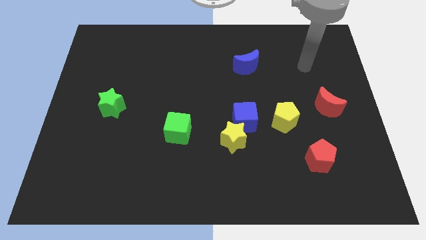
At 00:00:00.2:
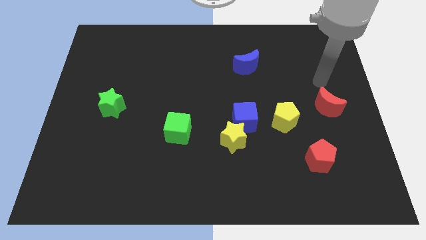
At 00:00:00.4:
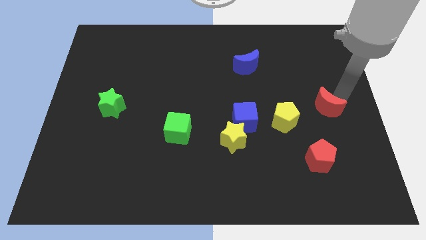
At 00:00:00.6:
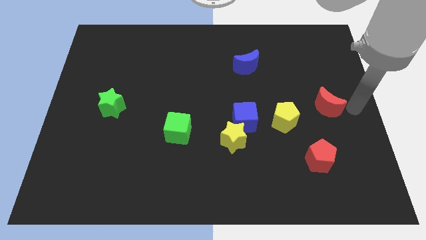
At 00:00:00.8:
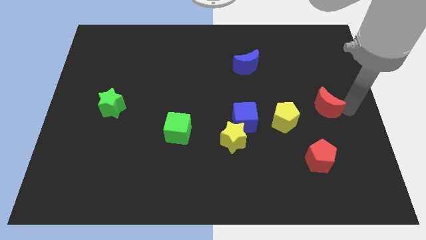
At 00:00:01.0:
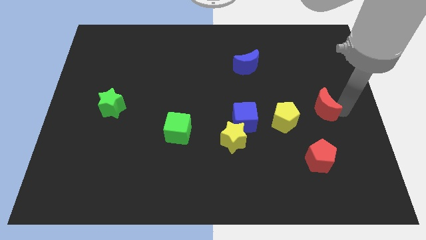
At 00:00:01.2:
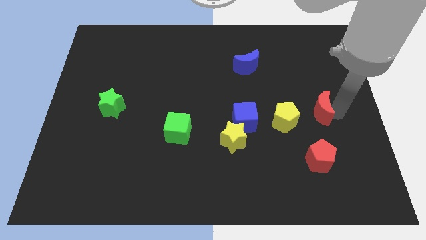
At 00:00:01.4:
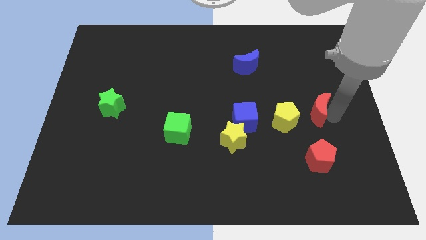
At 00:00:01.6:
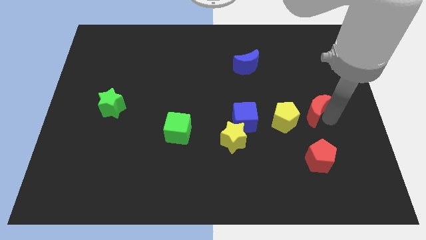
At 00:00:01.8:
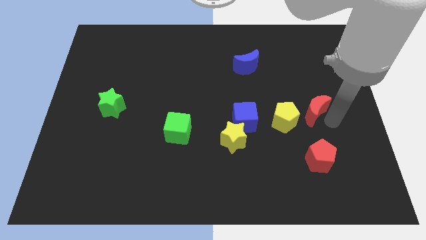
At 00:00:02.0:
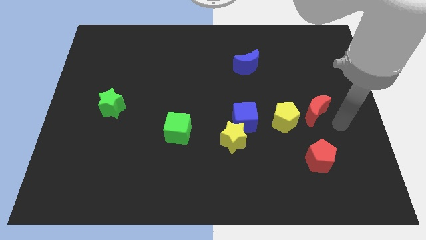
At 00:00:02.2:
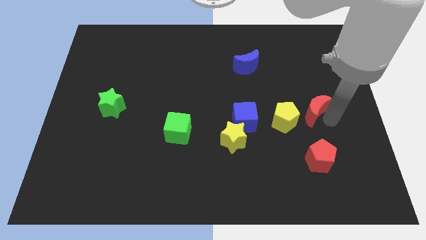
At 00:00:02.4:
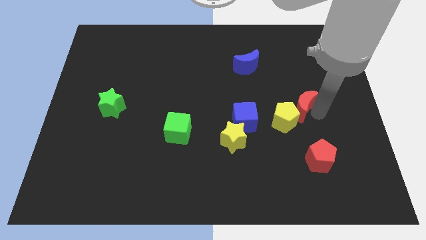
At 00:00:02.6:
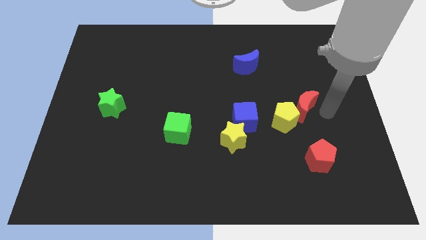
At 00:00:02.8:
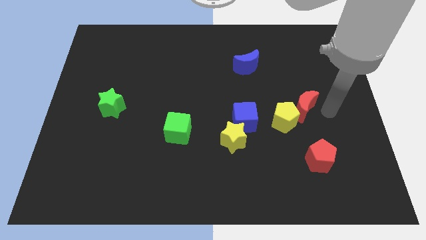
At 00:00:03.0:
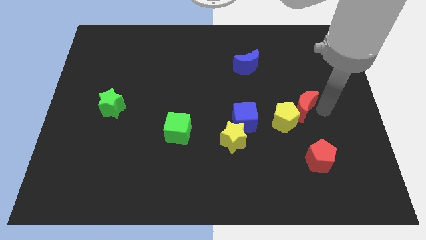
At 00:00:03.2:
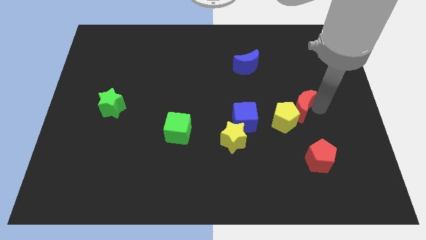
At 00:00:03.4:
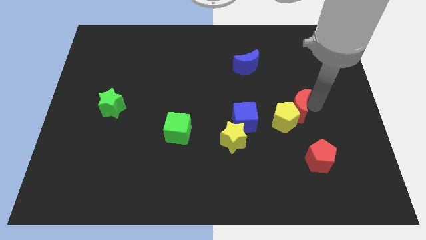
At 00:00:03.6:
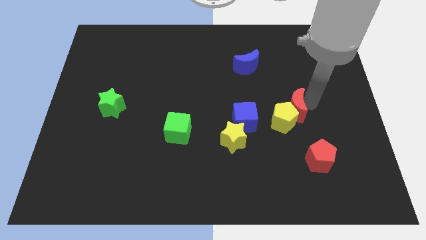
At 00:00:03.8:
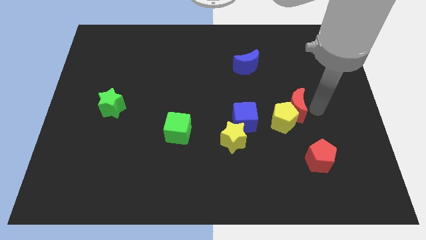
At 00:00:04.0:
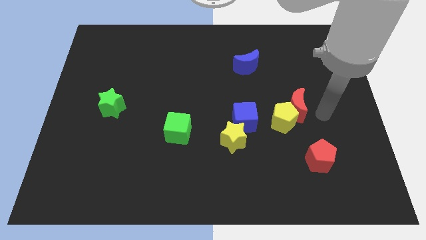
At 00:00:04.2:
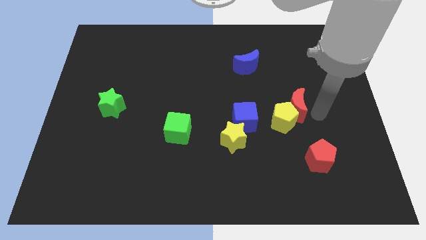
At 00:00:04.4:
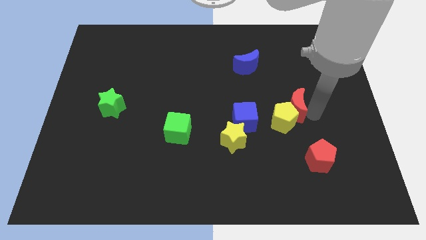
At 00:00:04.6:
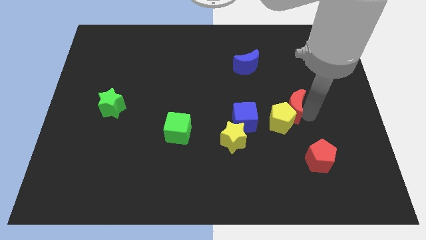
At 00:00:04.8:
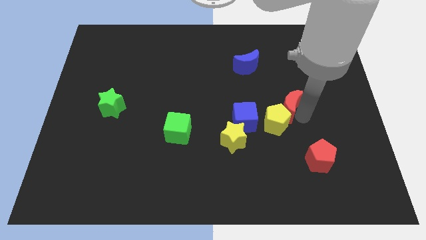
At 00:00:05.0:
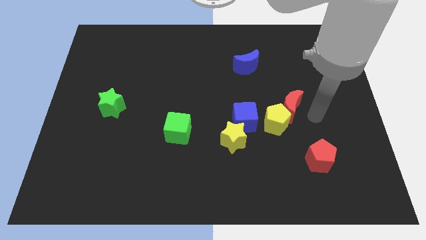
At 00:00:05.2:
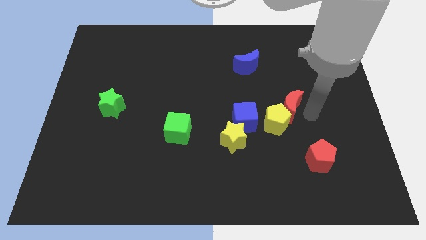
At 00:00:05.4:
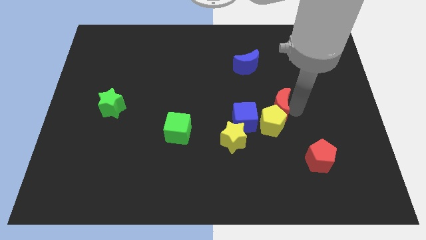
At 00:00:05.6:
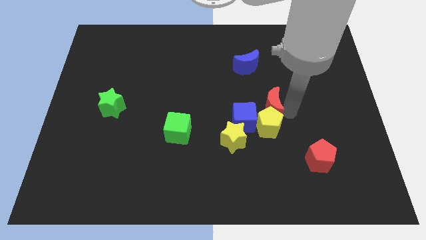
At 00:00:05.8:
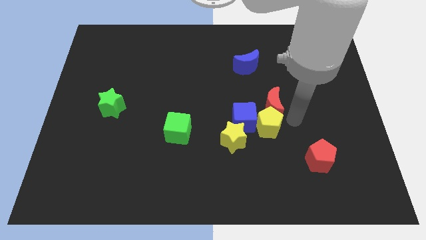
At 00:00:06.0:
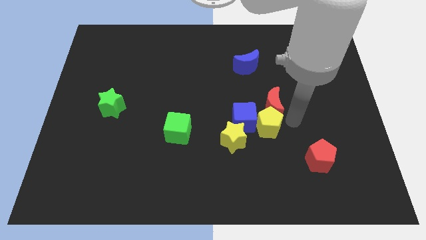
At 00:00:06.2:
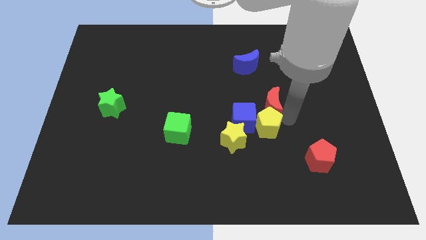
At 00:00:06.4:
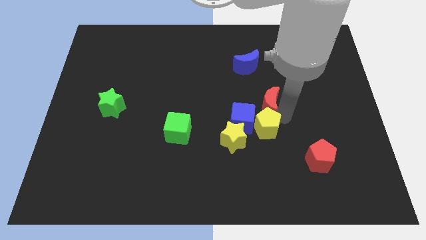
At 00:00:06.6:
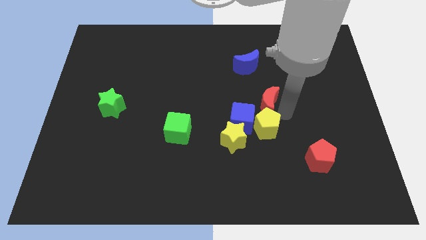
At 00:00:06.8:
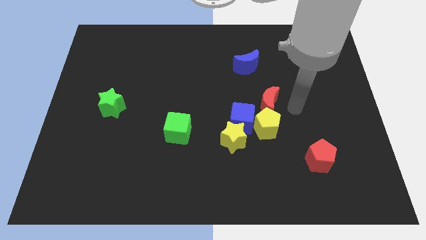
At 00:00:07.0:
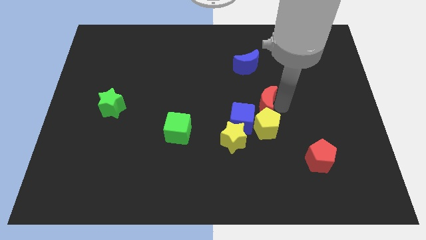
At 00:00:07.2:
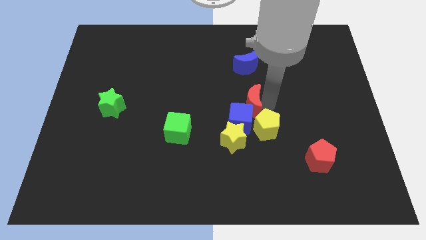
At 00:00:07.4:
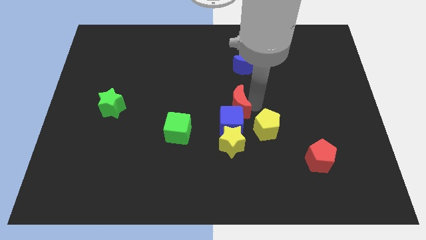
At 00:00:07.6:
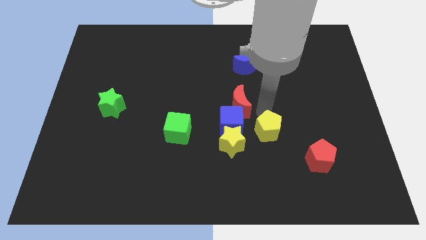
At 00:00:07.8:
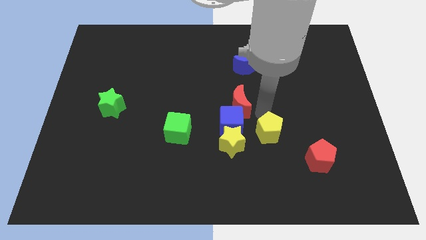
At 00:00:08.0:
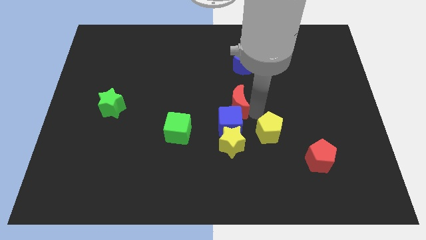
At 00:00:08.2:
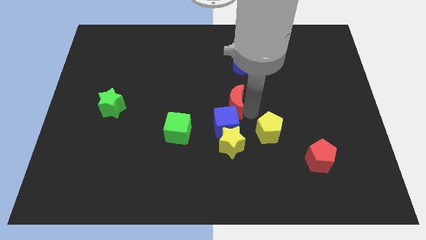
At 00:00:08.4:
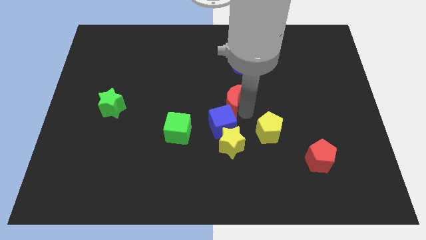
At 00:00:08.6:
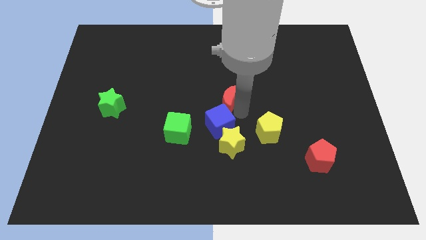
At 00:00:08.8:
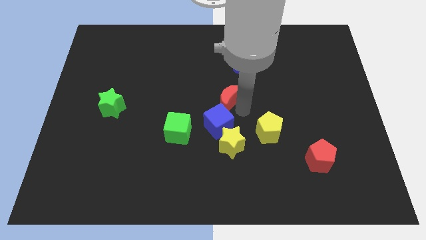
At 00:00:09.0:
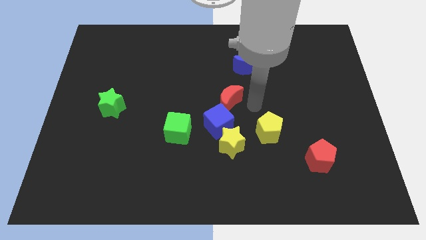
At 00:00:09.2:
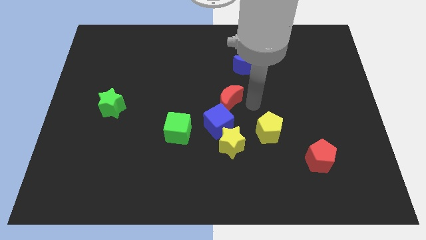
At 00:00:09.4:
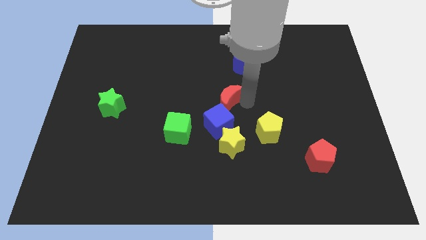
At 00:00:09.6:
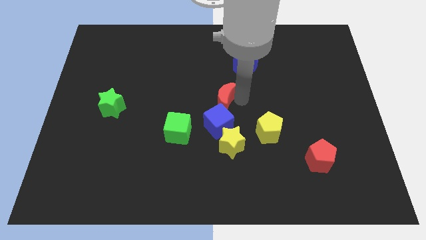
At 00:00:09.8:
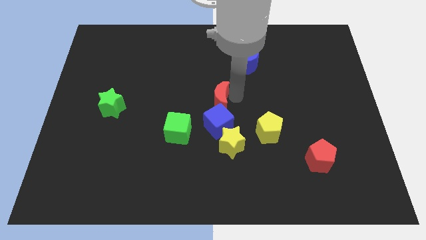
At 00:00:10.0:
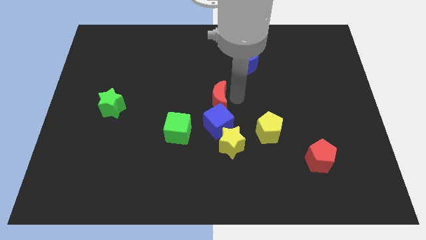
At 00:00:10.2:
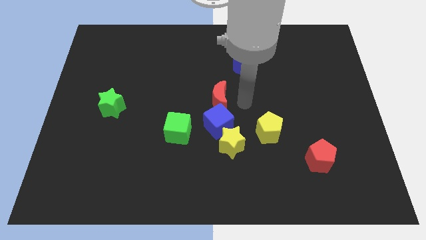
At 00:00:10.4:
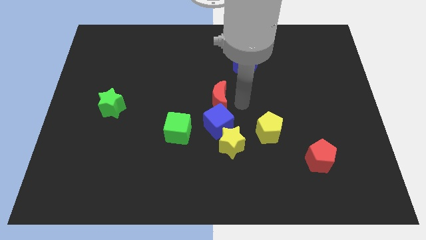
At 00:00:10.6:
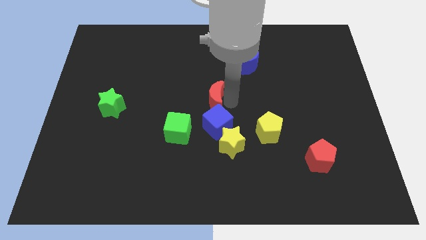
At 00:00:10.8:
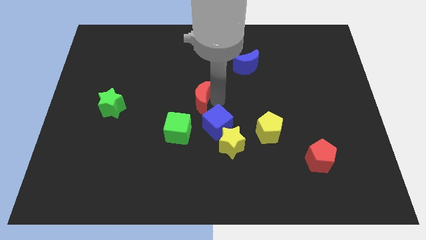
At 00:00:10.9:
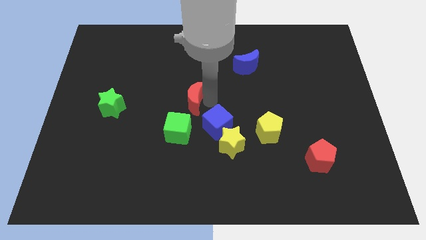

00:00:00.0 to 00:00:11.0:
slide the red moon to the top side of the green cube

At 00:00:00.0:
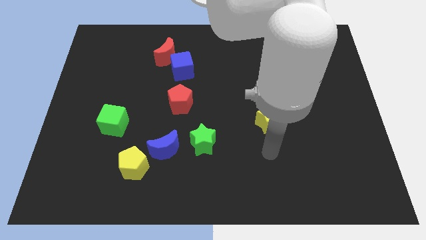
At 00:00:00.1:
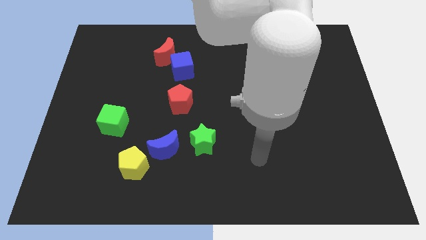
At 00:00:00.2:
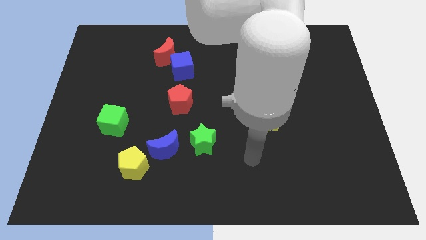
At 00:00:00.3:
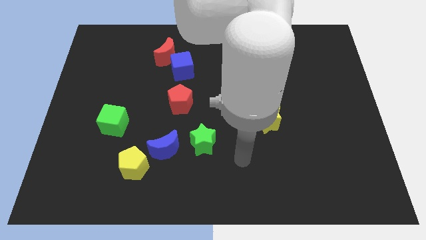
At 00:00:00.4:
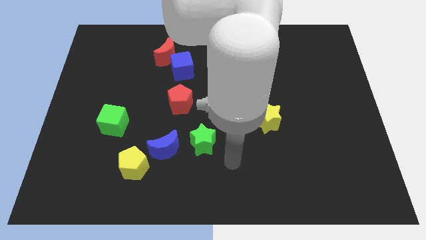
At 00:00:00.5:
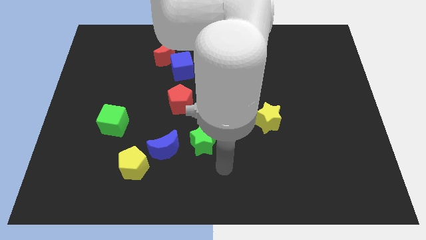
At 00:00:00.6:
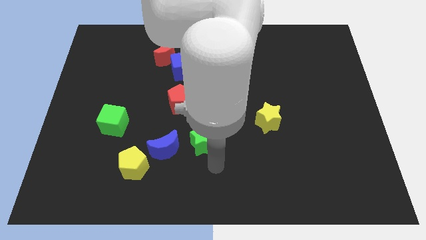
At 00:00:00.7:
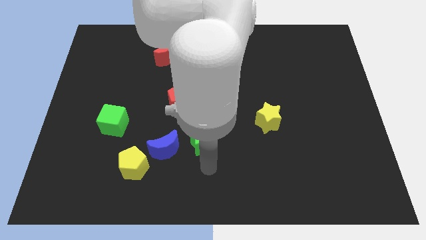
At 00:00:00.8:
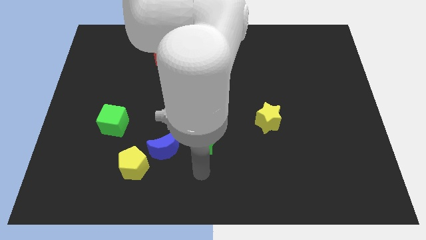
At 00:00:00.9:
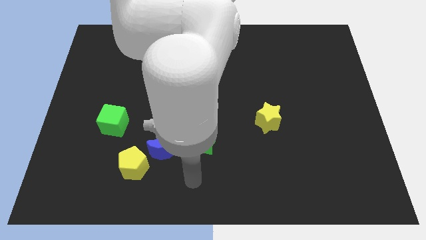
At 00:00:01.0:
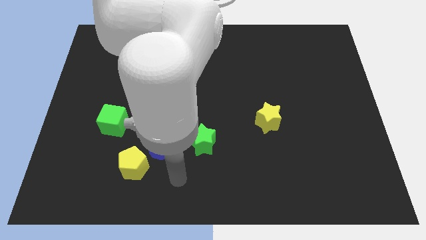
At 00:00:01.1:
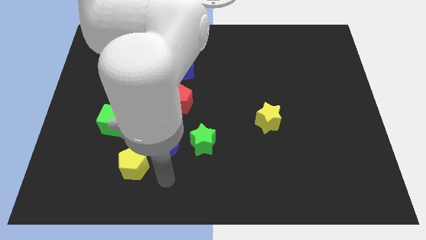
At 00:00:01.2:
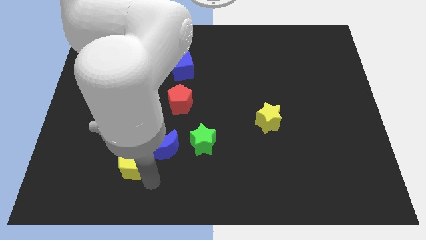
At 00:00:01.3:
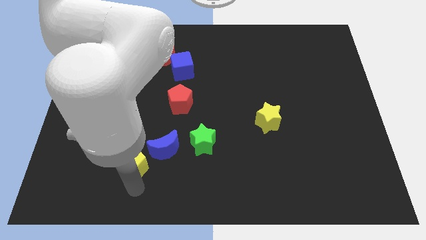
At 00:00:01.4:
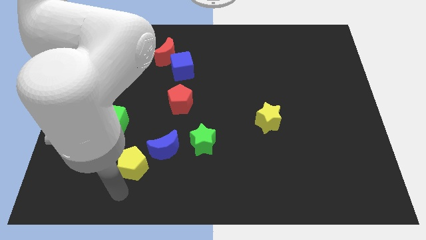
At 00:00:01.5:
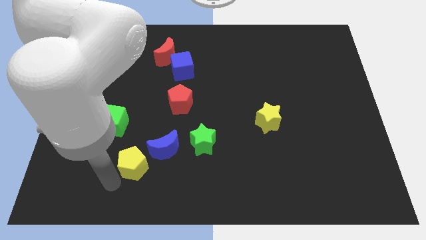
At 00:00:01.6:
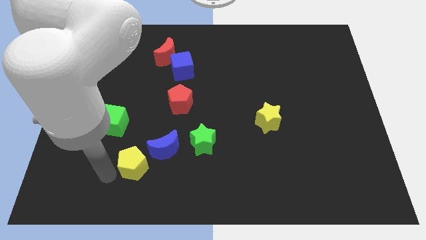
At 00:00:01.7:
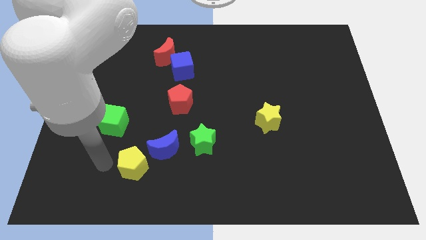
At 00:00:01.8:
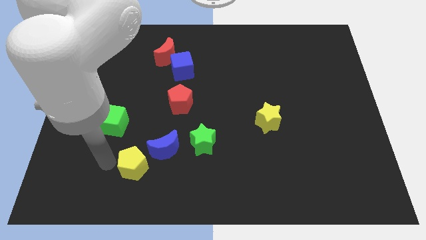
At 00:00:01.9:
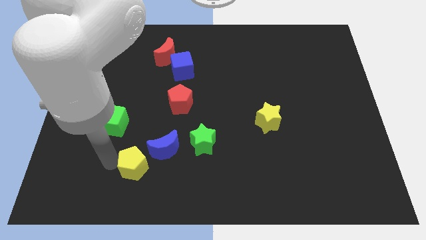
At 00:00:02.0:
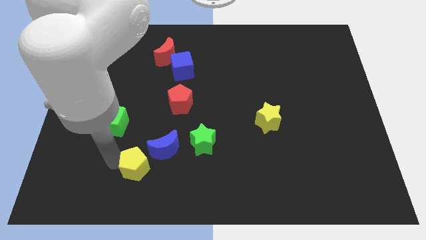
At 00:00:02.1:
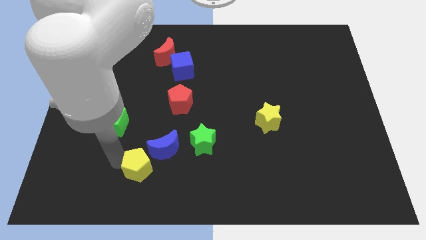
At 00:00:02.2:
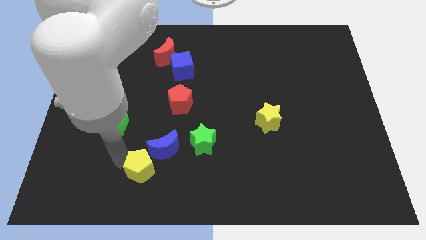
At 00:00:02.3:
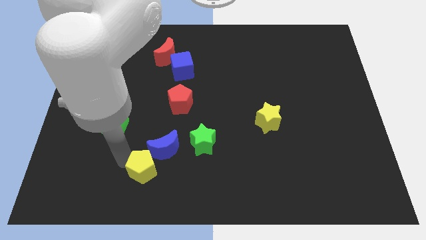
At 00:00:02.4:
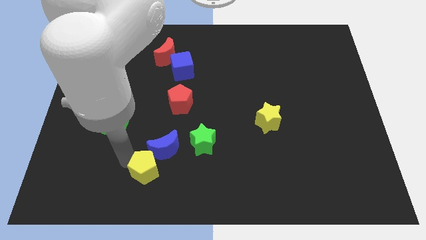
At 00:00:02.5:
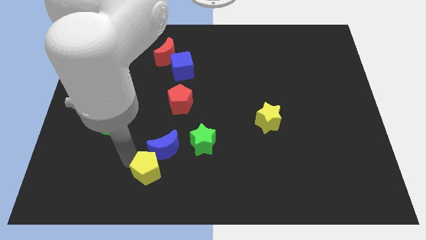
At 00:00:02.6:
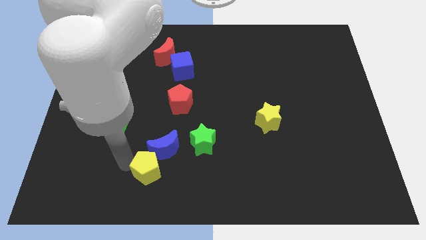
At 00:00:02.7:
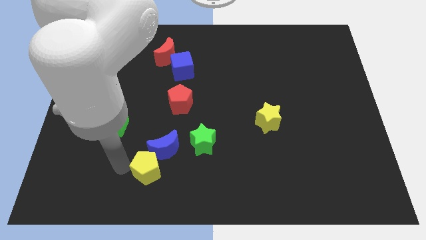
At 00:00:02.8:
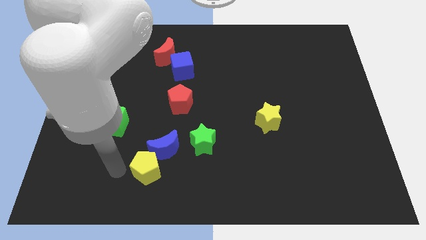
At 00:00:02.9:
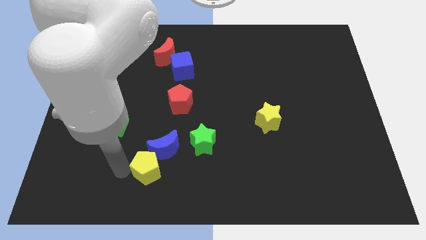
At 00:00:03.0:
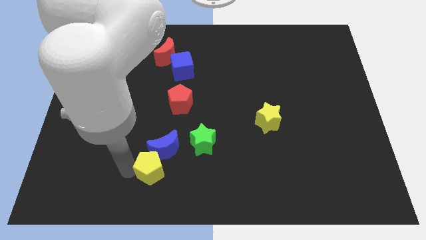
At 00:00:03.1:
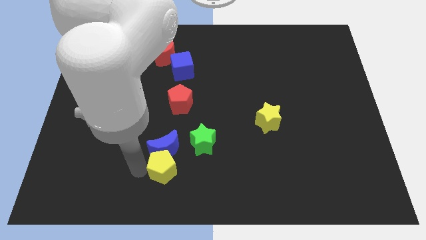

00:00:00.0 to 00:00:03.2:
move the yellow pentagon diagonally down and to the right of the blue moon
